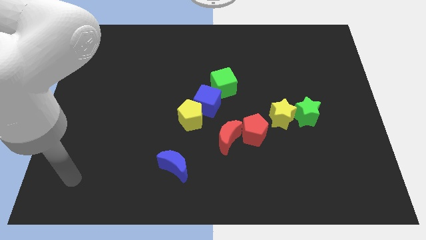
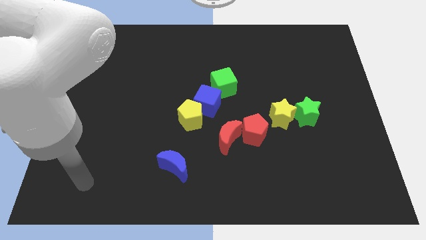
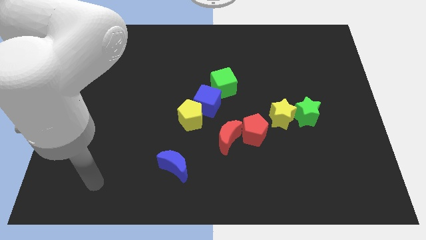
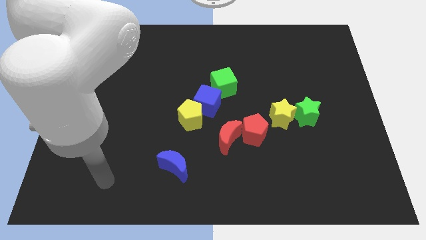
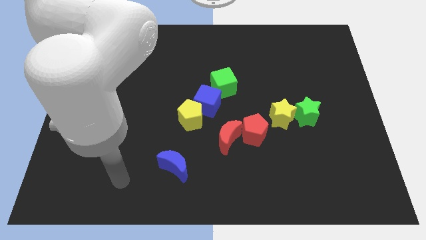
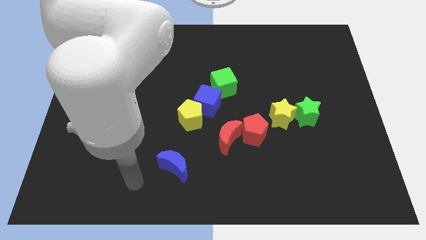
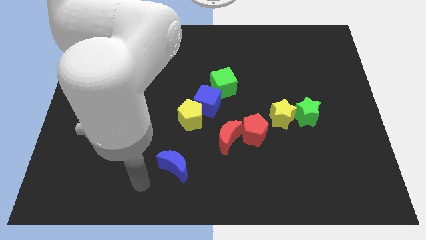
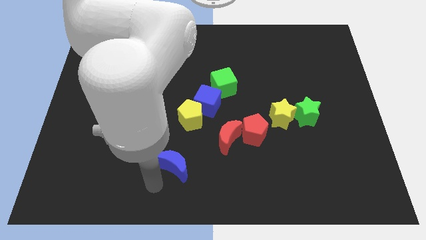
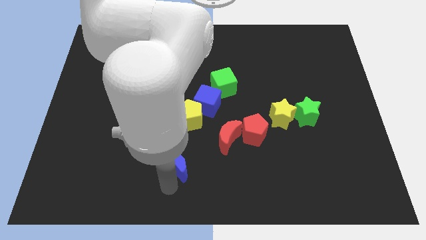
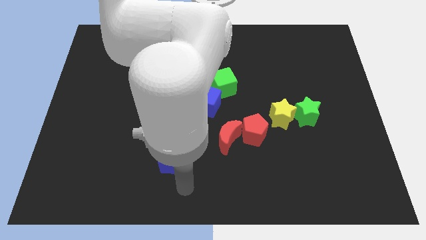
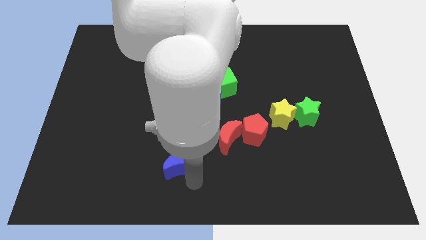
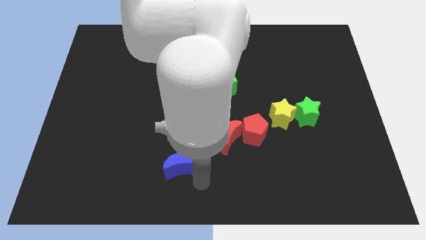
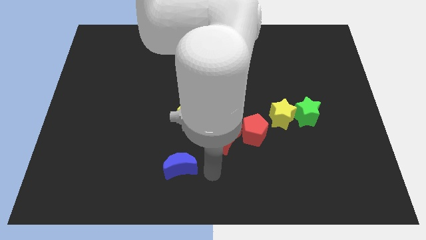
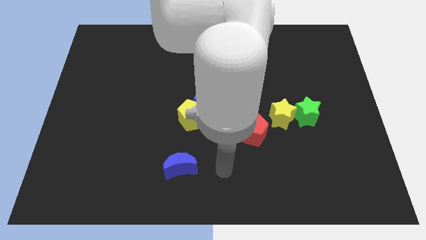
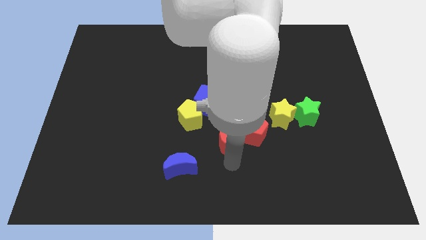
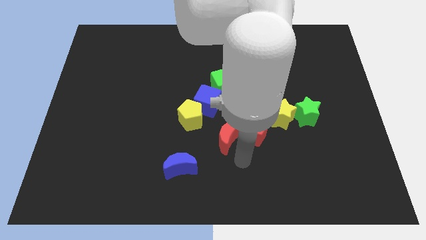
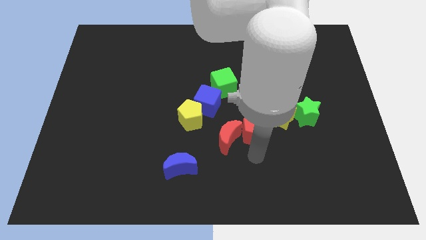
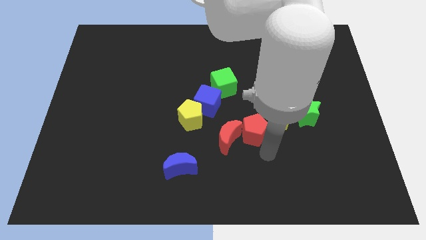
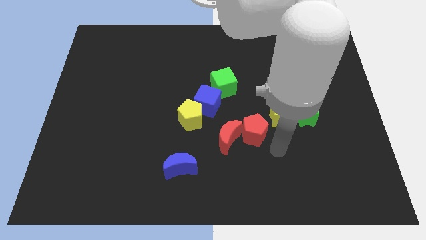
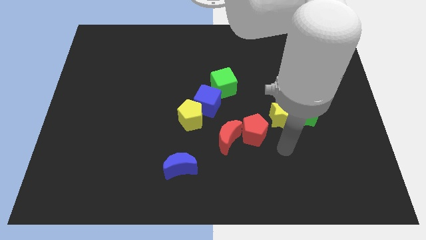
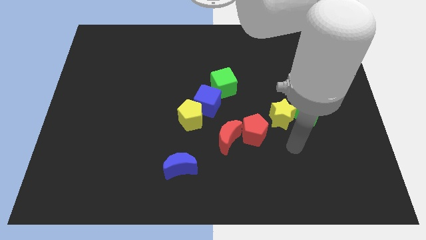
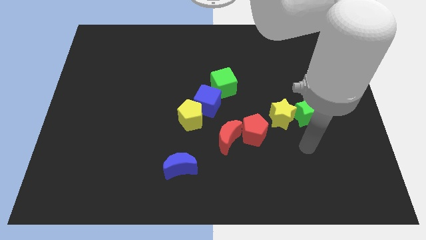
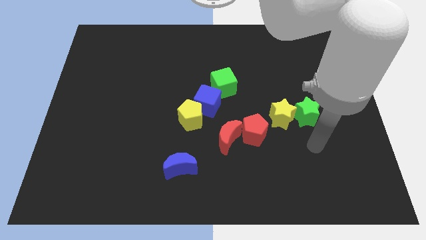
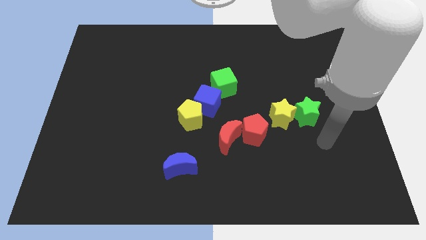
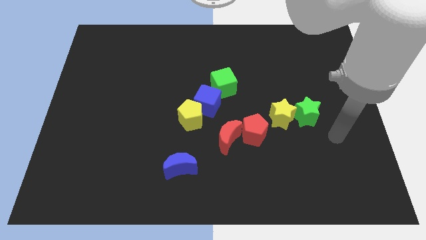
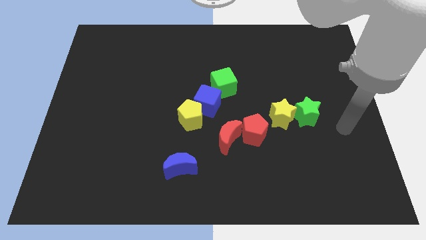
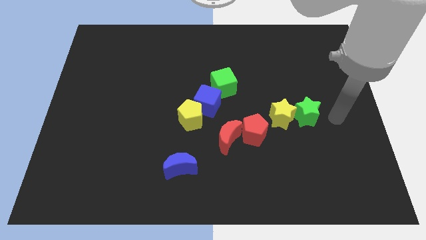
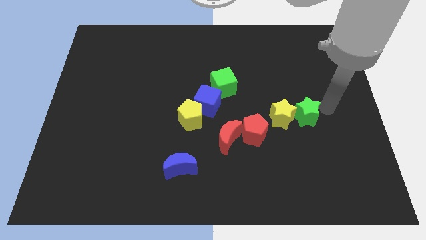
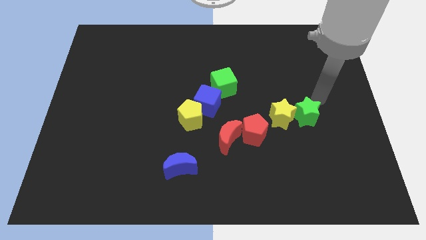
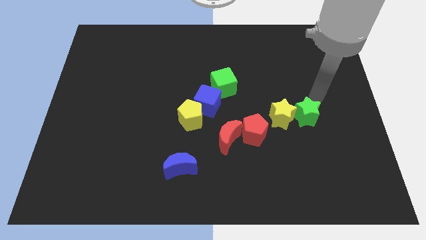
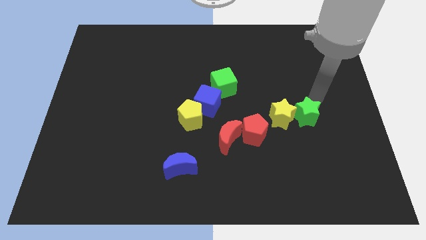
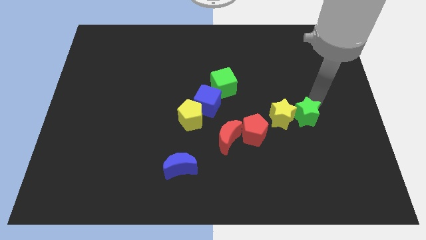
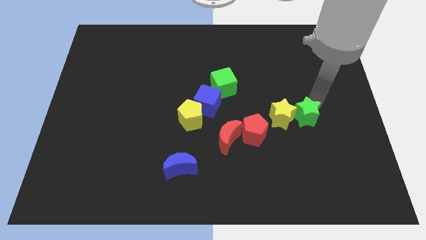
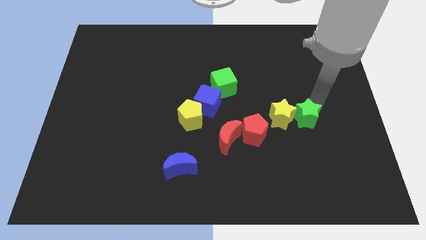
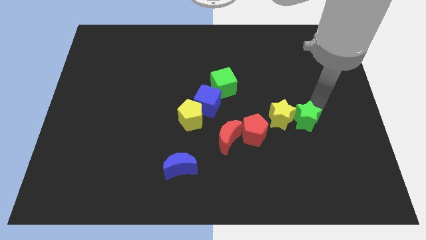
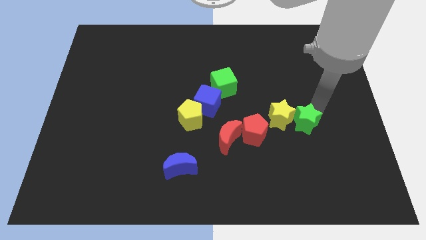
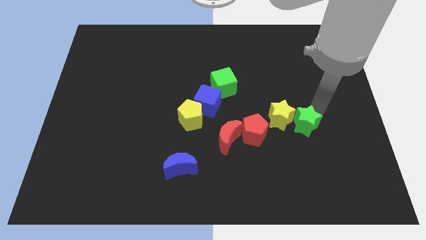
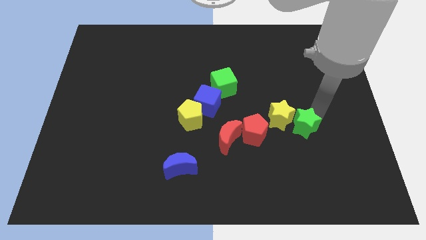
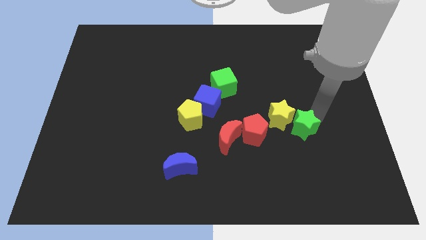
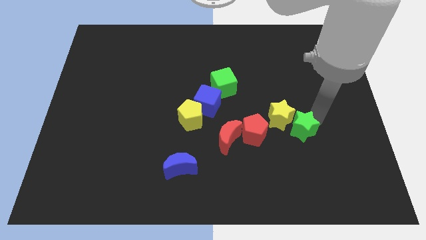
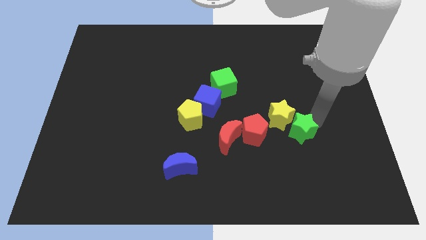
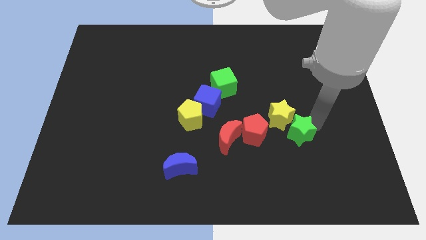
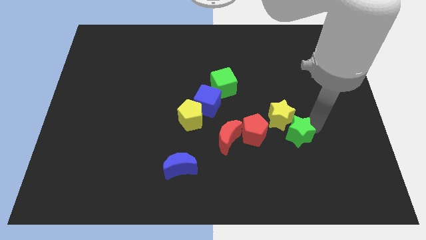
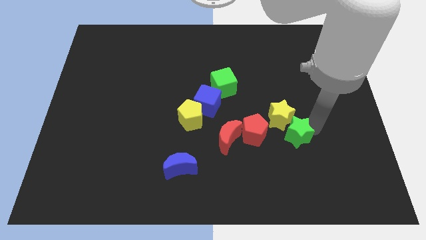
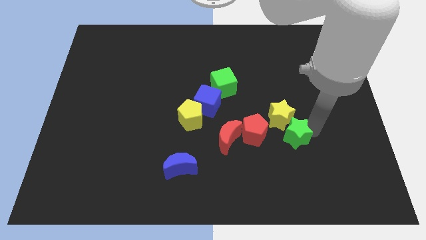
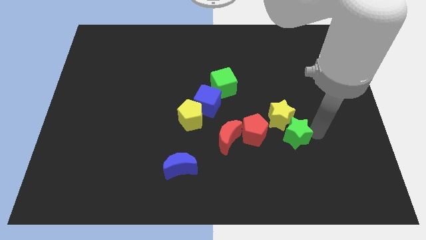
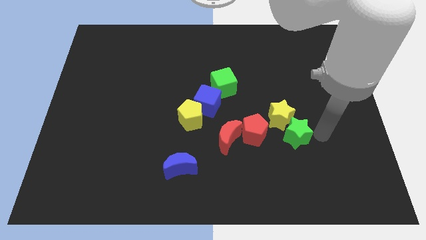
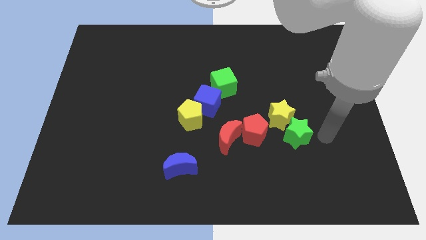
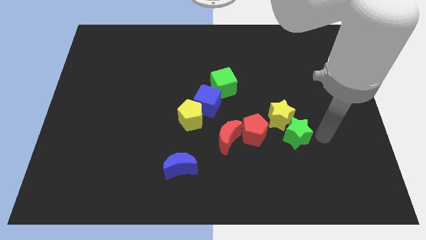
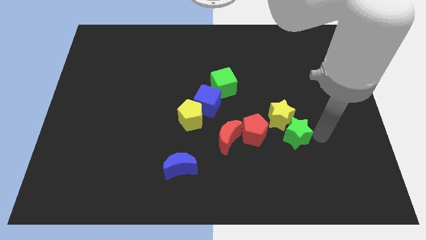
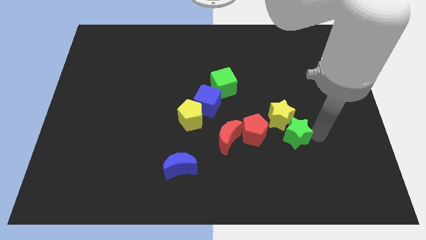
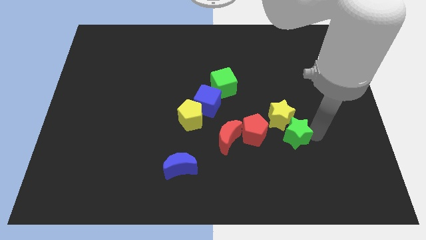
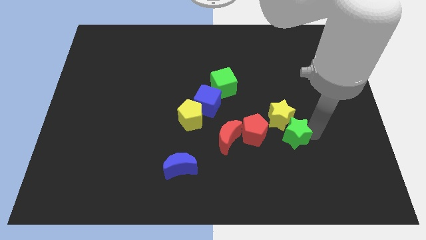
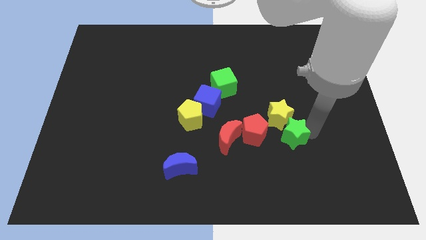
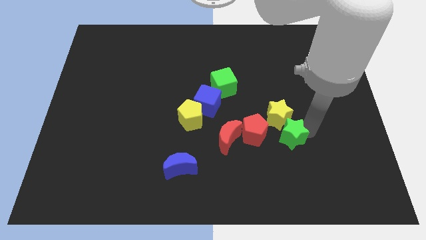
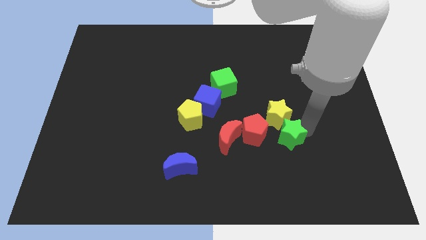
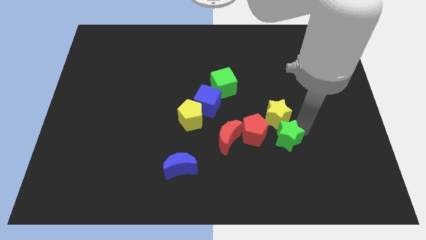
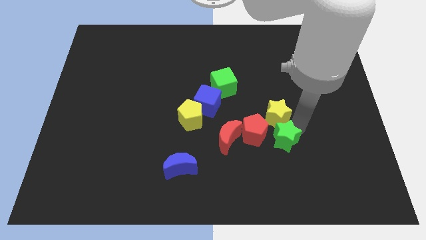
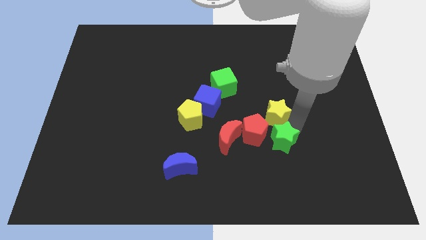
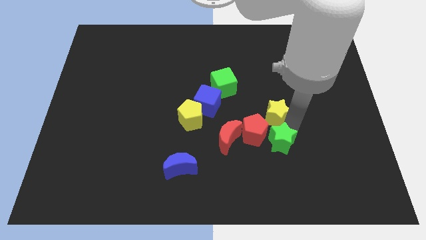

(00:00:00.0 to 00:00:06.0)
put the green star towards the red pentagon

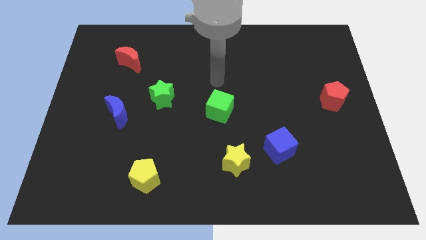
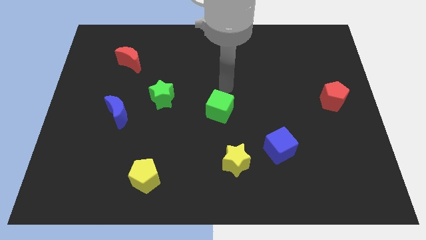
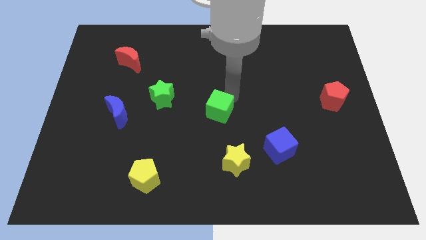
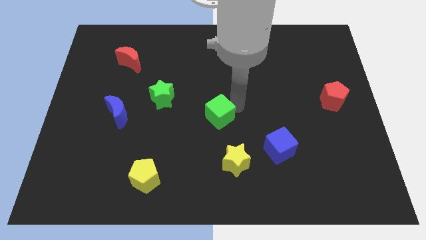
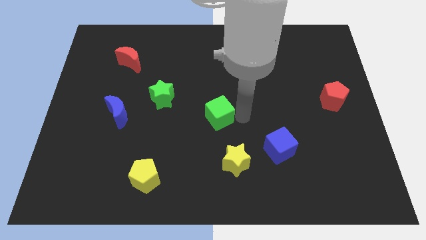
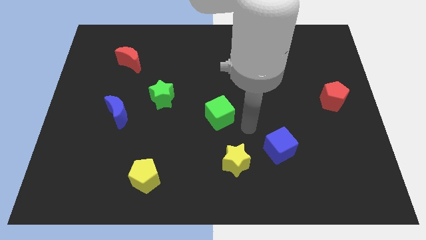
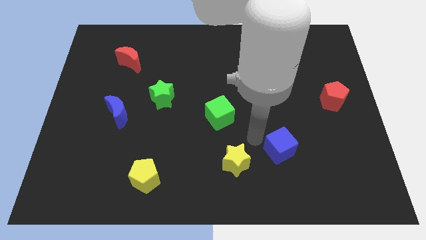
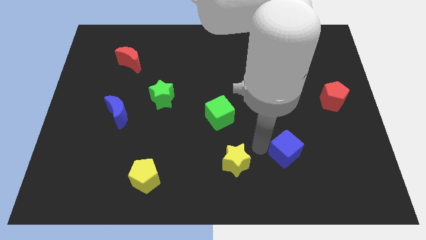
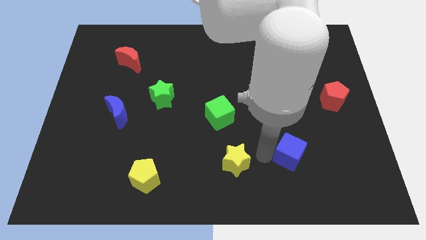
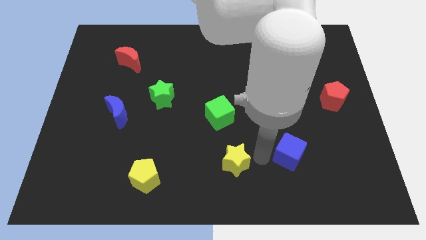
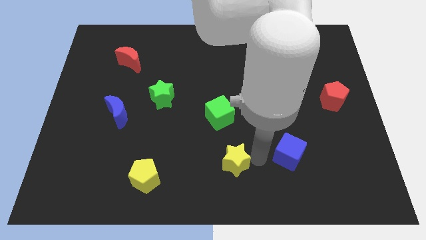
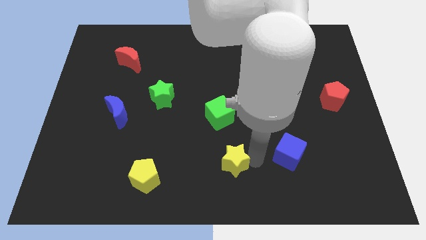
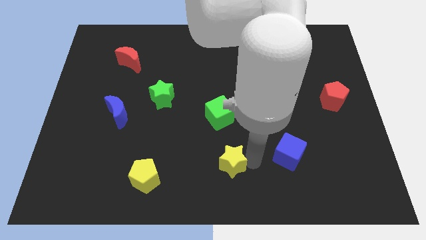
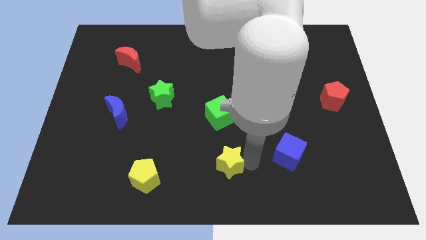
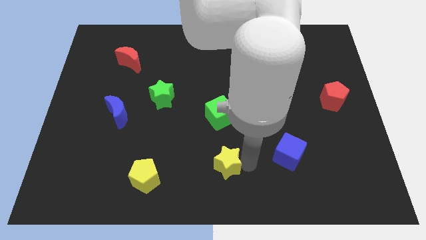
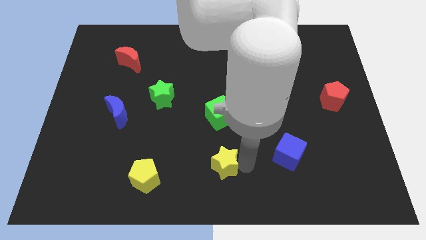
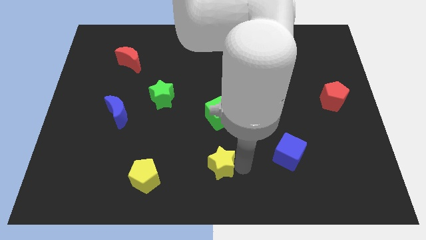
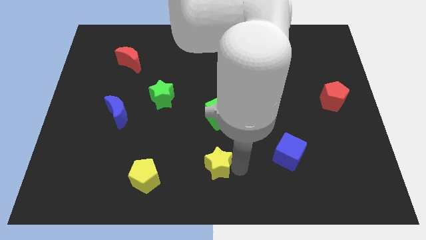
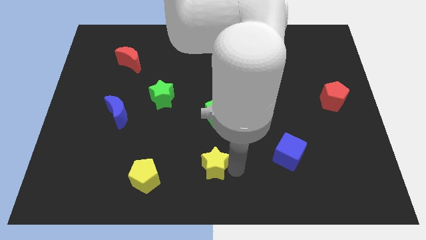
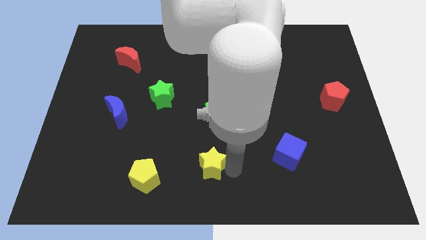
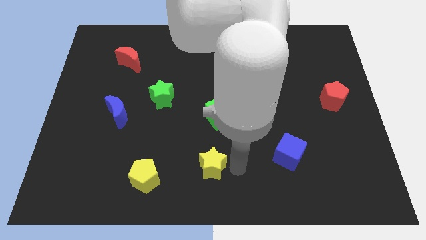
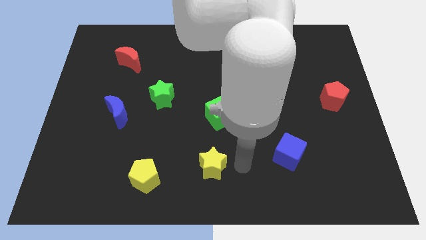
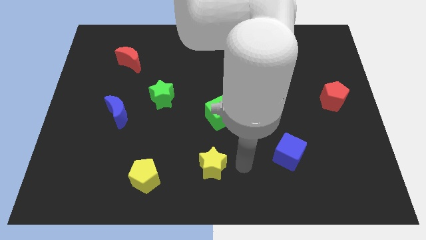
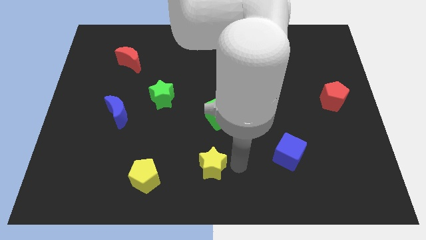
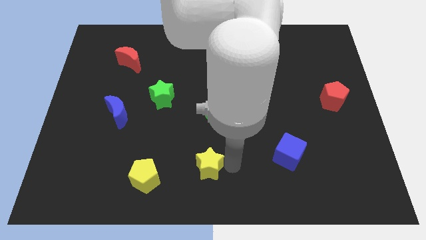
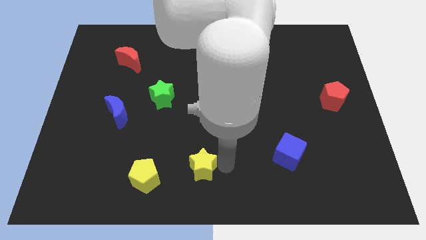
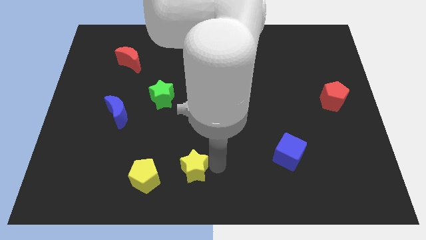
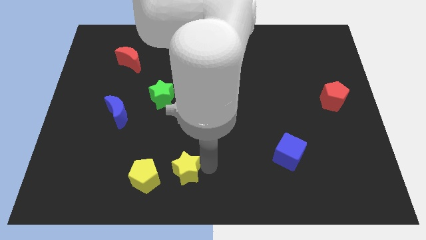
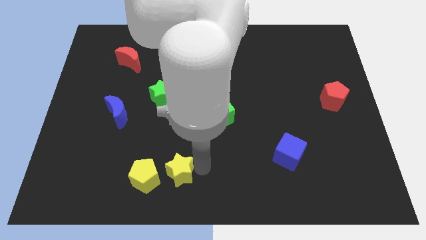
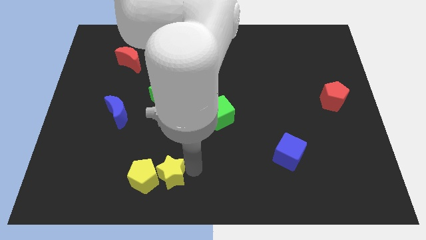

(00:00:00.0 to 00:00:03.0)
slide the yellow star close to the yellow pentagon
